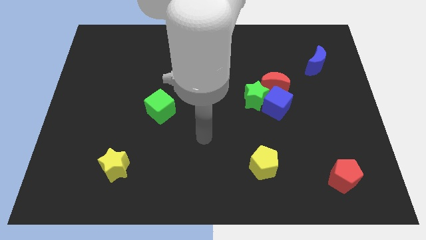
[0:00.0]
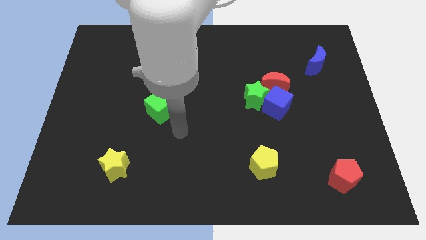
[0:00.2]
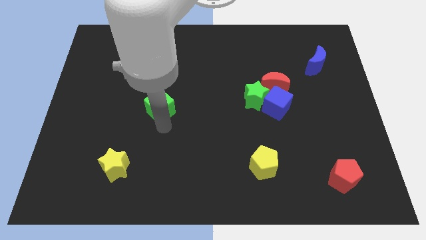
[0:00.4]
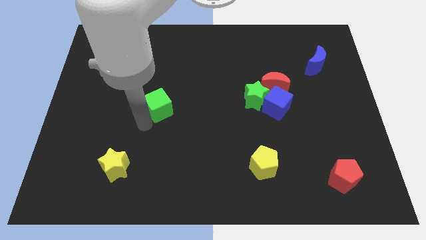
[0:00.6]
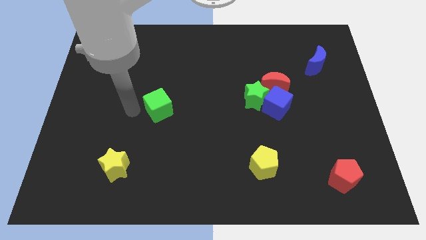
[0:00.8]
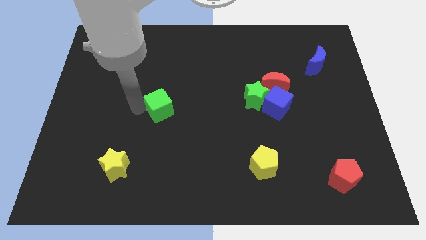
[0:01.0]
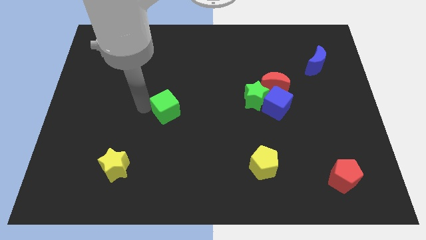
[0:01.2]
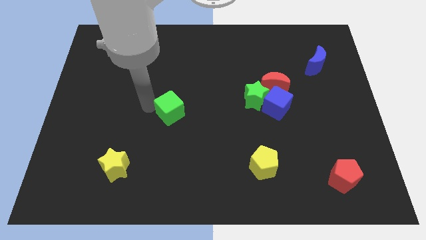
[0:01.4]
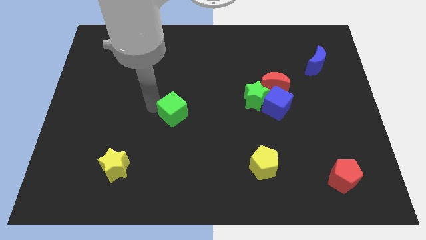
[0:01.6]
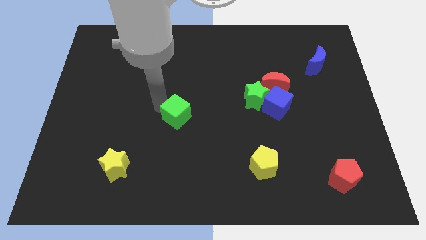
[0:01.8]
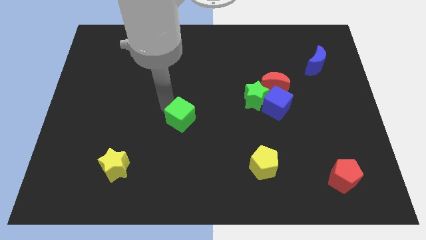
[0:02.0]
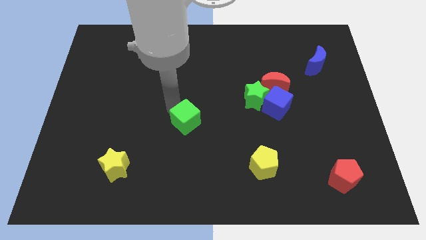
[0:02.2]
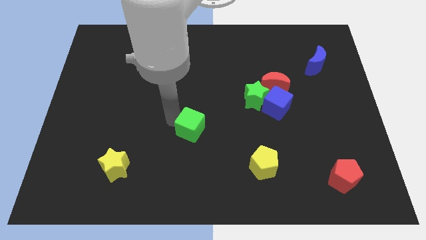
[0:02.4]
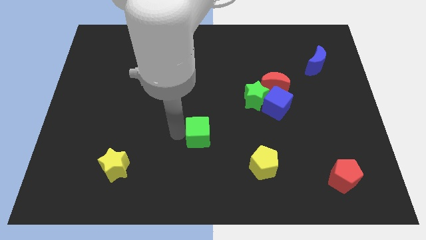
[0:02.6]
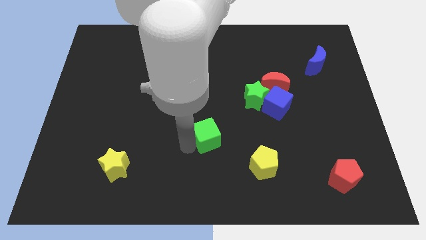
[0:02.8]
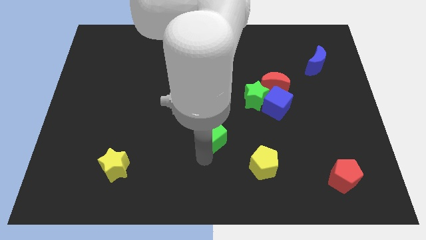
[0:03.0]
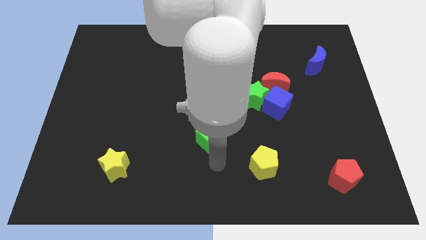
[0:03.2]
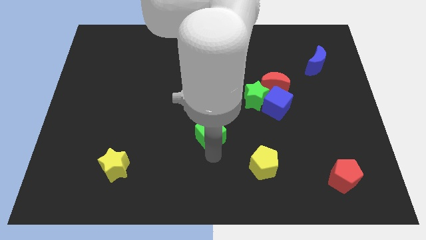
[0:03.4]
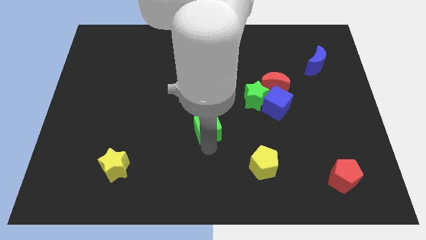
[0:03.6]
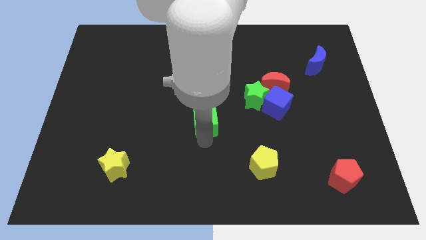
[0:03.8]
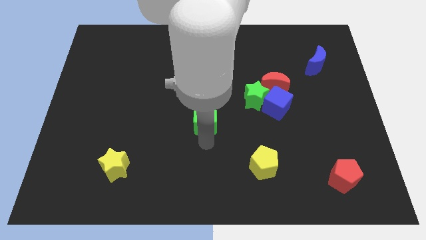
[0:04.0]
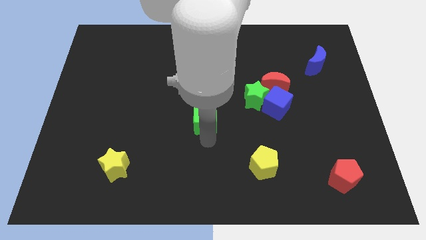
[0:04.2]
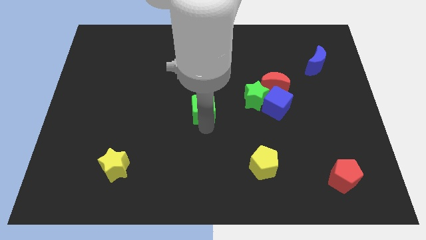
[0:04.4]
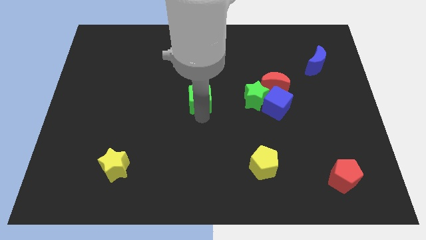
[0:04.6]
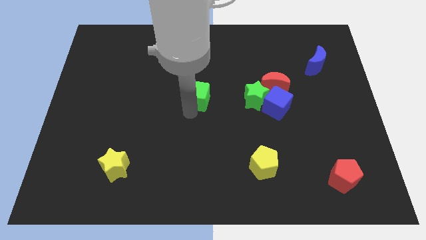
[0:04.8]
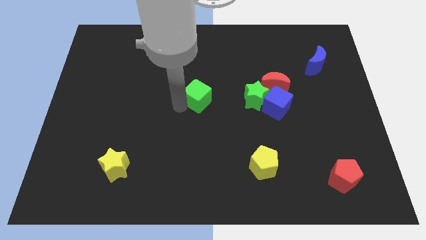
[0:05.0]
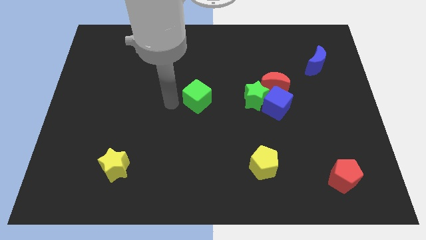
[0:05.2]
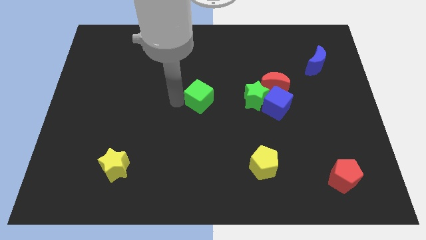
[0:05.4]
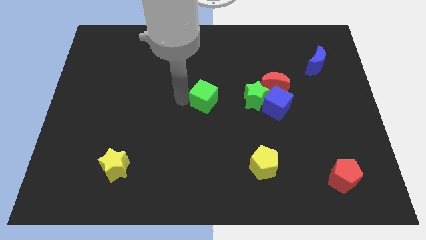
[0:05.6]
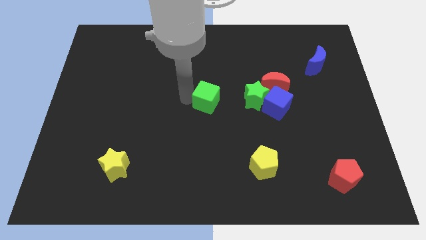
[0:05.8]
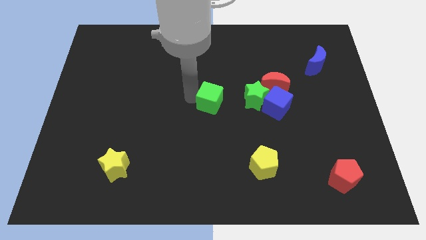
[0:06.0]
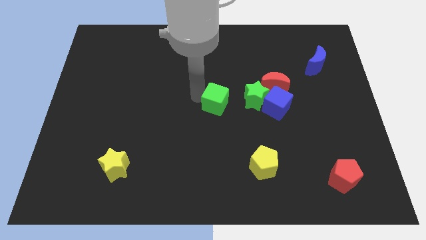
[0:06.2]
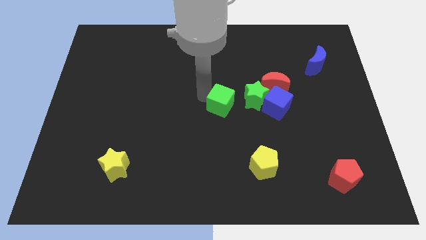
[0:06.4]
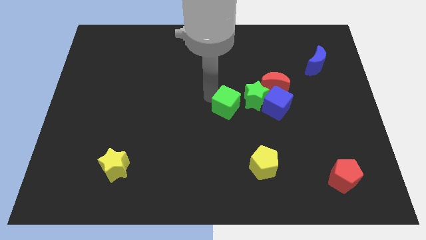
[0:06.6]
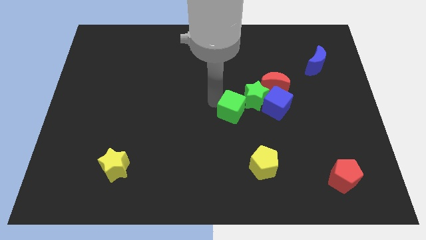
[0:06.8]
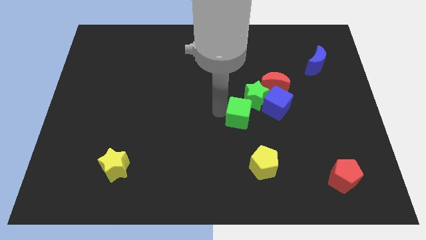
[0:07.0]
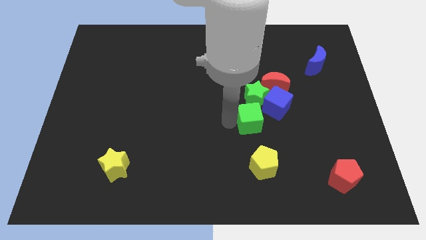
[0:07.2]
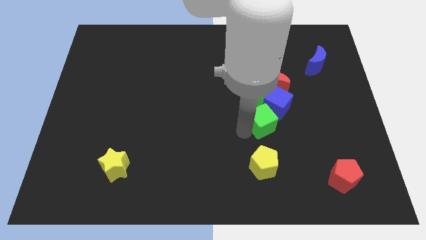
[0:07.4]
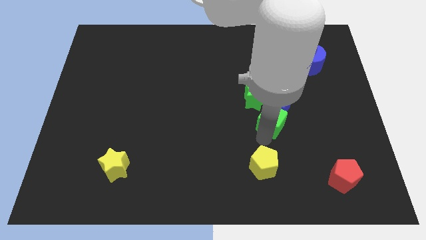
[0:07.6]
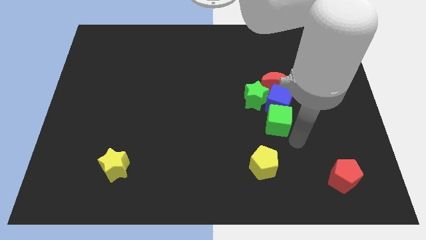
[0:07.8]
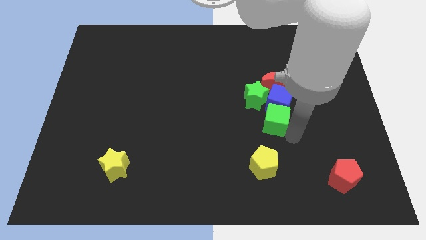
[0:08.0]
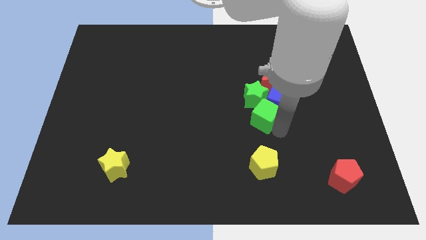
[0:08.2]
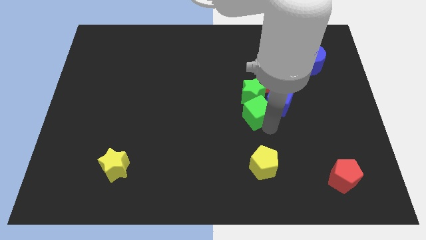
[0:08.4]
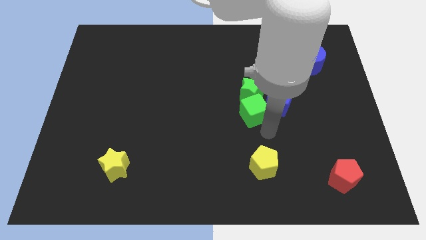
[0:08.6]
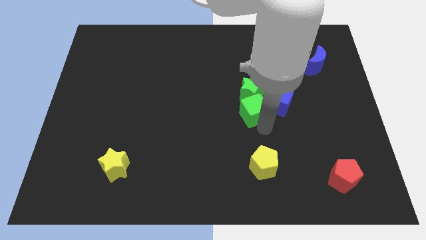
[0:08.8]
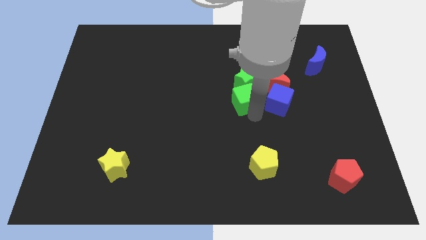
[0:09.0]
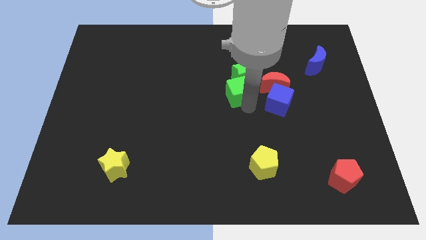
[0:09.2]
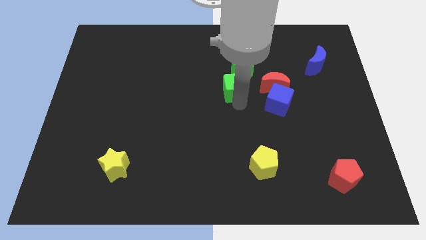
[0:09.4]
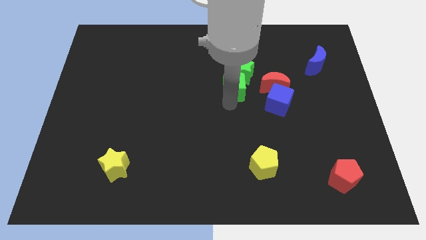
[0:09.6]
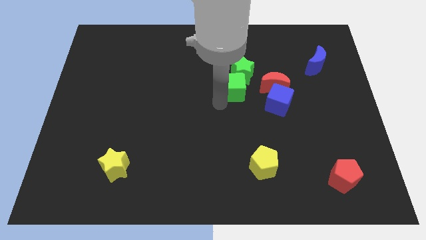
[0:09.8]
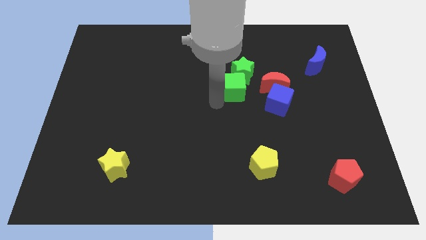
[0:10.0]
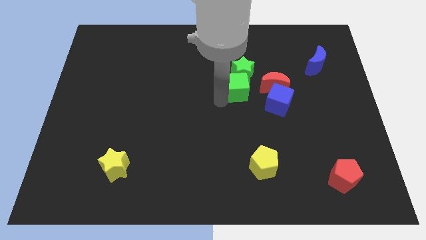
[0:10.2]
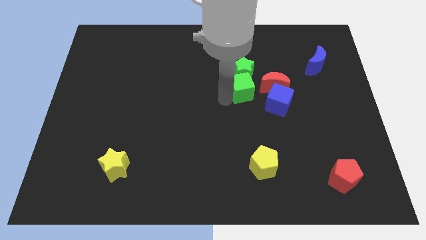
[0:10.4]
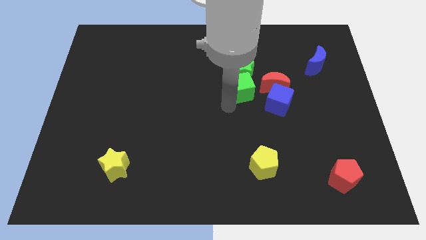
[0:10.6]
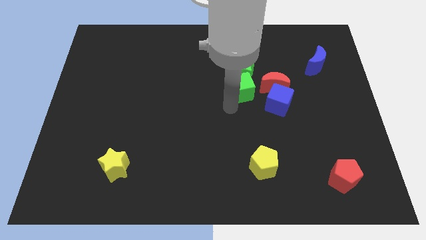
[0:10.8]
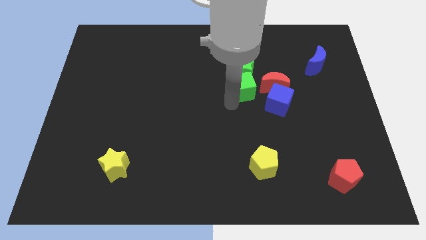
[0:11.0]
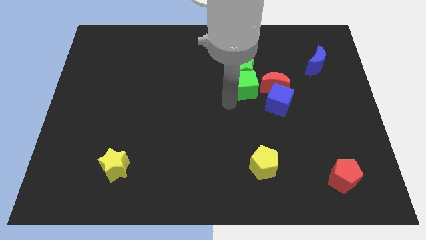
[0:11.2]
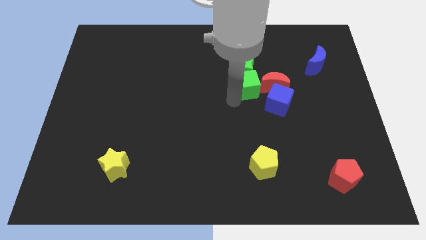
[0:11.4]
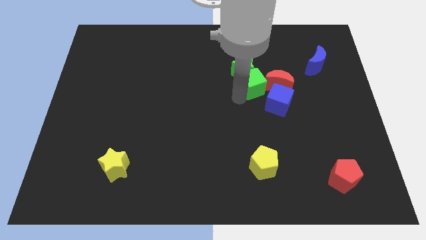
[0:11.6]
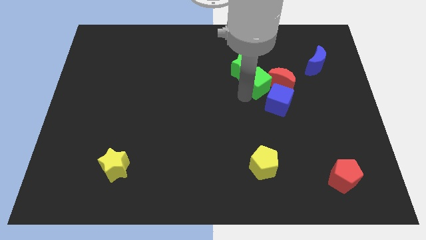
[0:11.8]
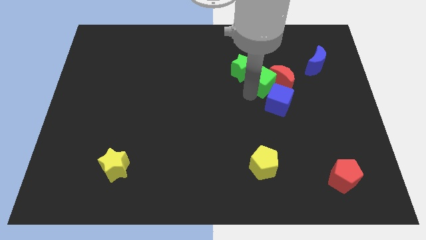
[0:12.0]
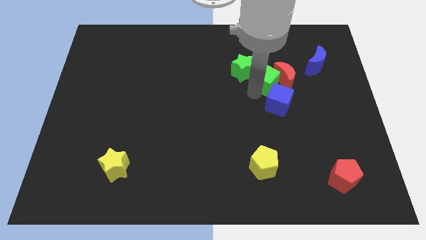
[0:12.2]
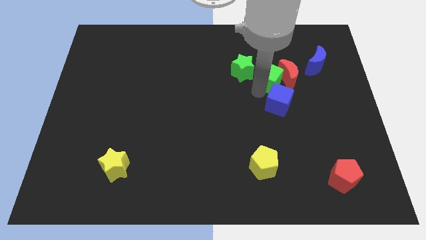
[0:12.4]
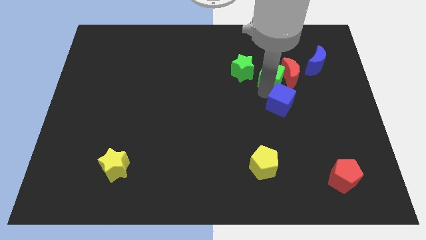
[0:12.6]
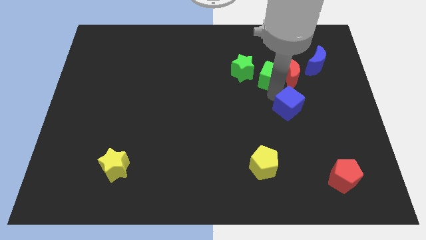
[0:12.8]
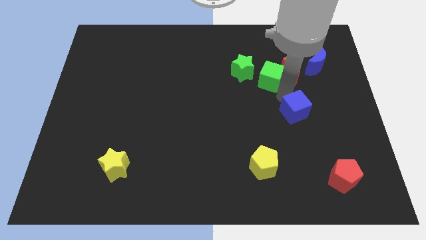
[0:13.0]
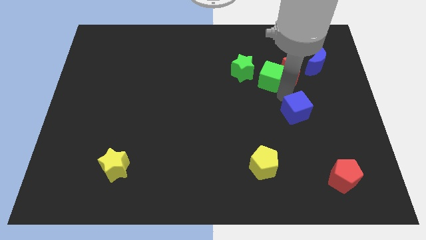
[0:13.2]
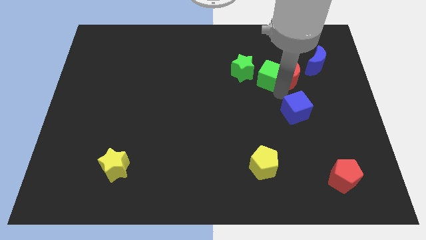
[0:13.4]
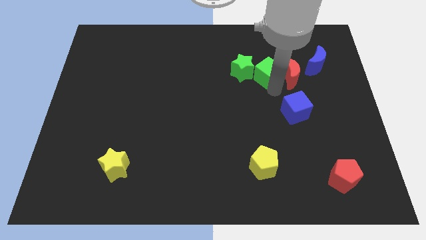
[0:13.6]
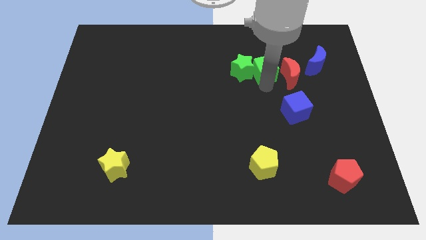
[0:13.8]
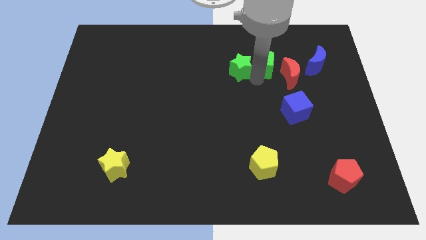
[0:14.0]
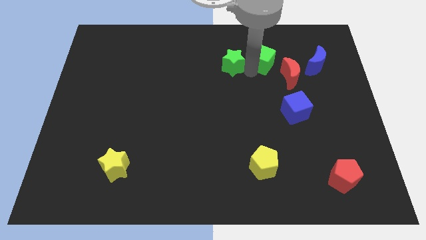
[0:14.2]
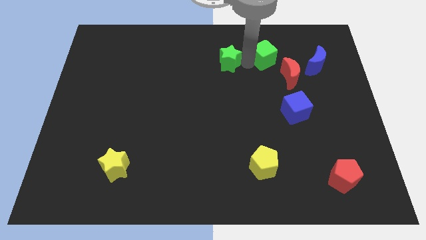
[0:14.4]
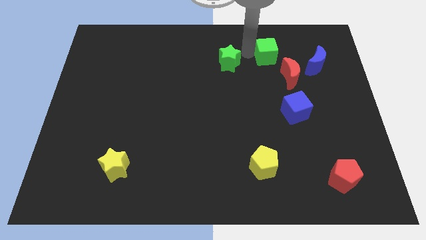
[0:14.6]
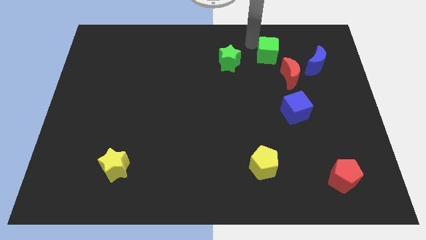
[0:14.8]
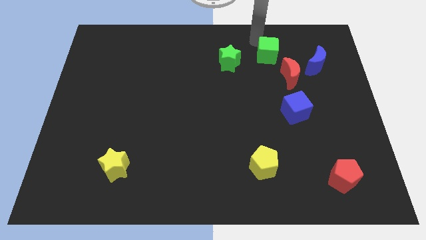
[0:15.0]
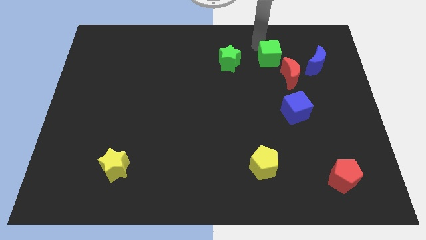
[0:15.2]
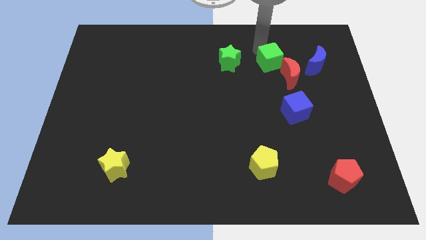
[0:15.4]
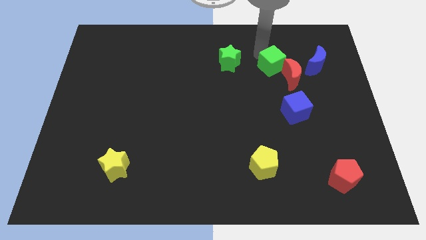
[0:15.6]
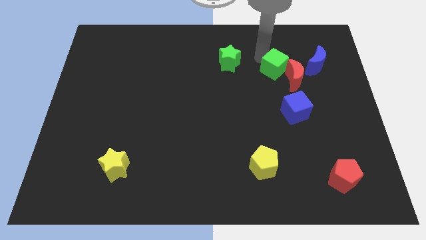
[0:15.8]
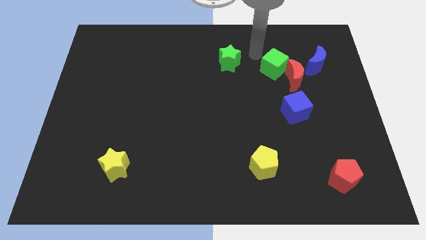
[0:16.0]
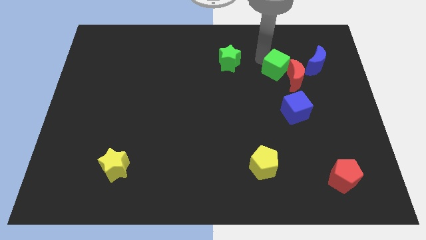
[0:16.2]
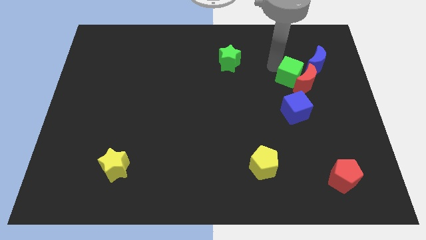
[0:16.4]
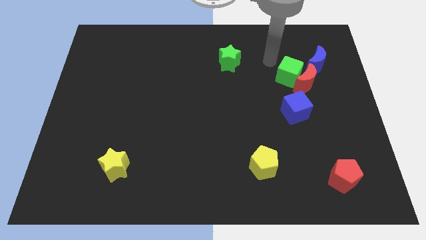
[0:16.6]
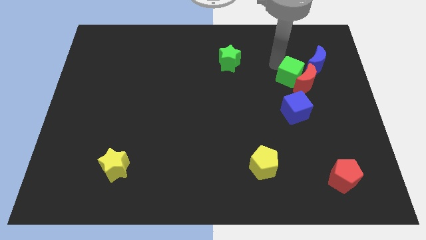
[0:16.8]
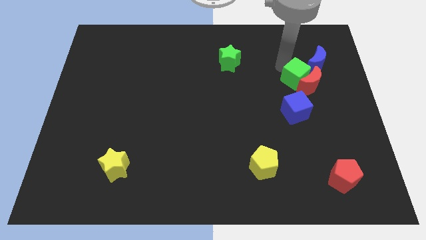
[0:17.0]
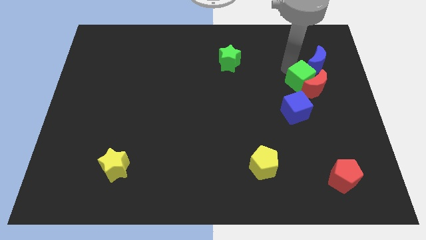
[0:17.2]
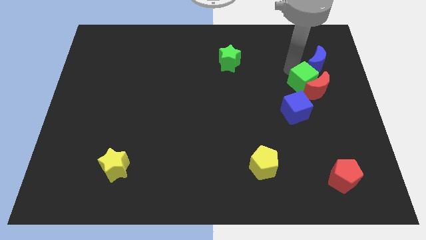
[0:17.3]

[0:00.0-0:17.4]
push the green cube to the top right side of the blue cube
